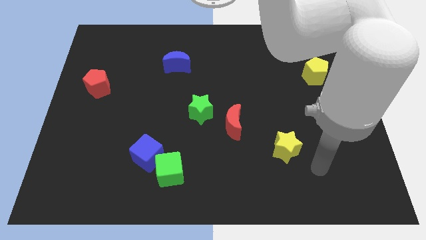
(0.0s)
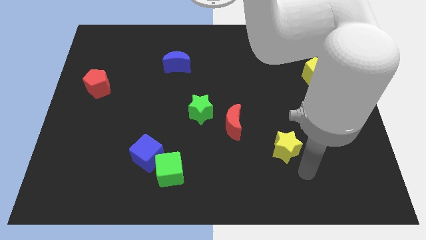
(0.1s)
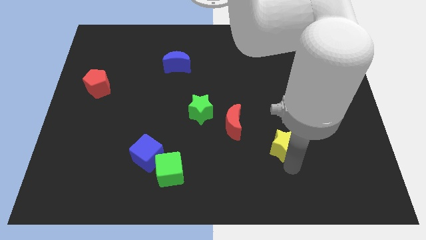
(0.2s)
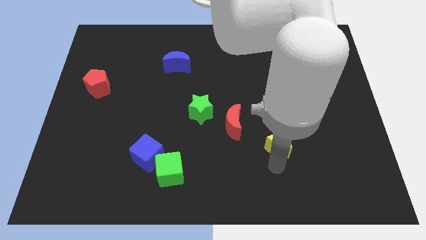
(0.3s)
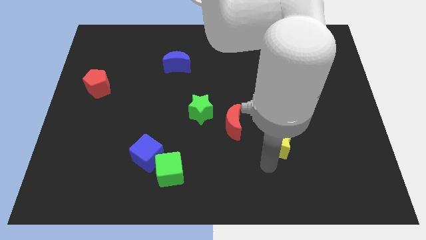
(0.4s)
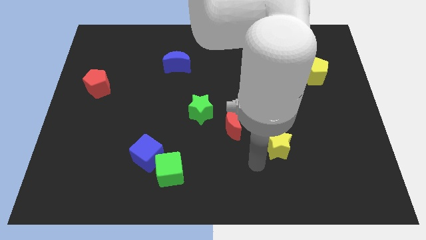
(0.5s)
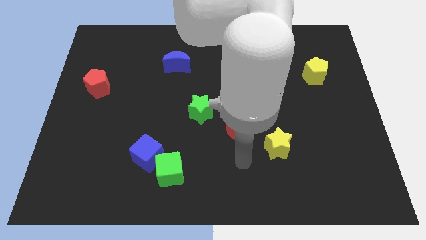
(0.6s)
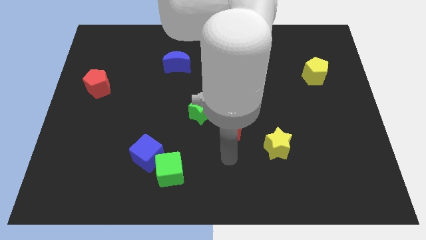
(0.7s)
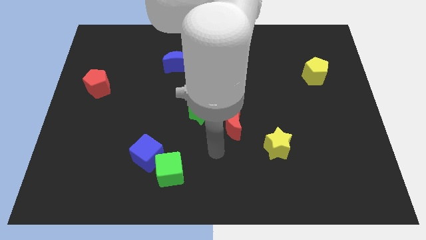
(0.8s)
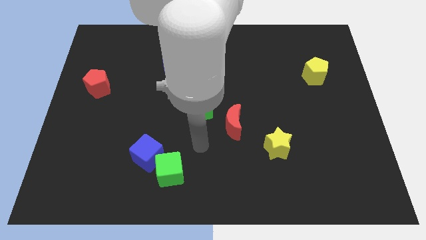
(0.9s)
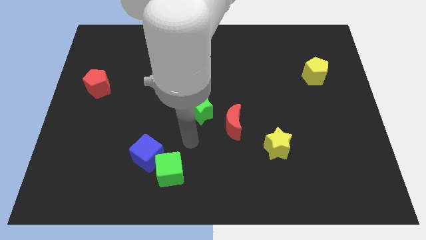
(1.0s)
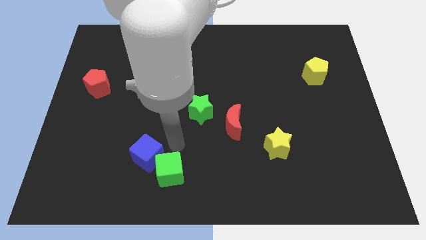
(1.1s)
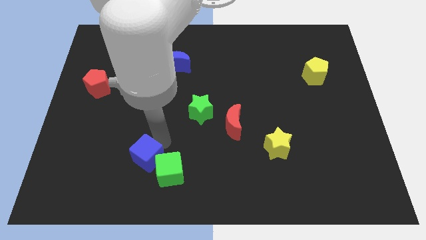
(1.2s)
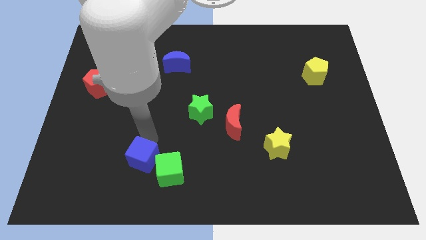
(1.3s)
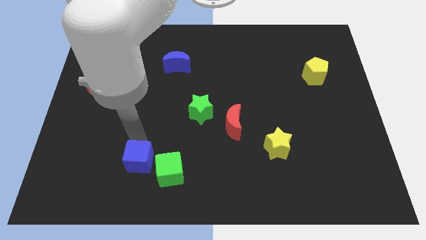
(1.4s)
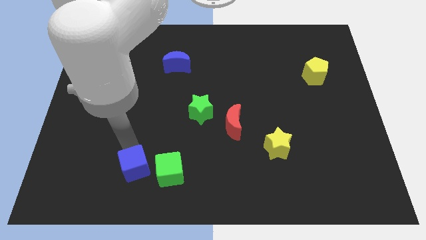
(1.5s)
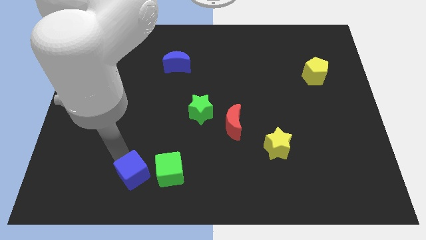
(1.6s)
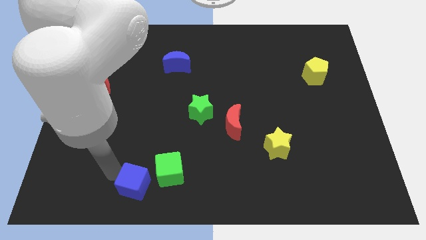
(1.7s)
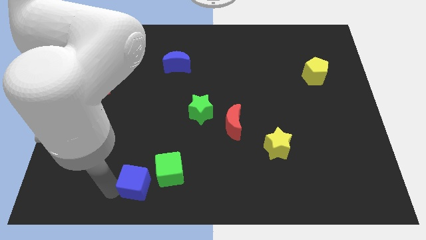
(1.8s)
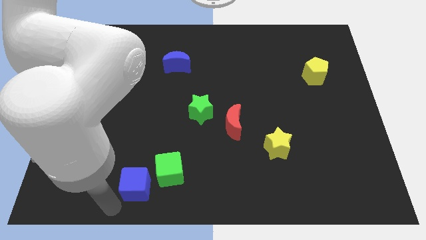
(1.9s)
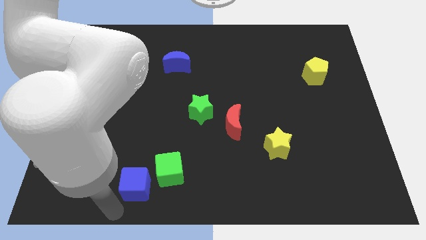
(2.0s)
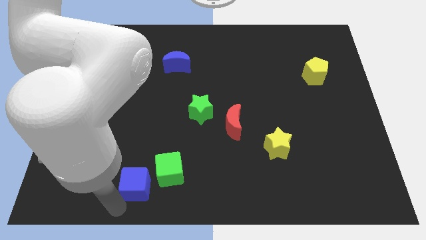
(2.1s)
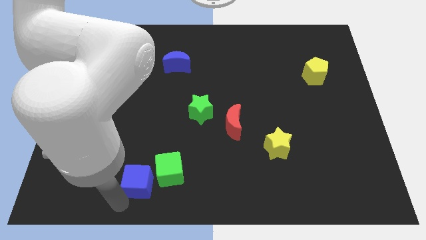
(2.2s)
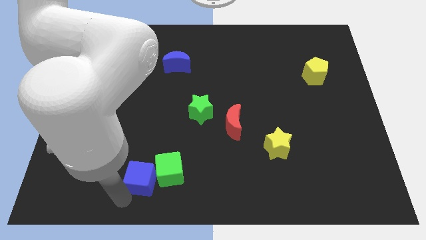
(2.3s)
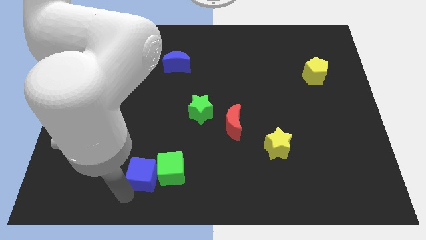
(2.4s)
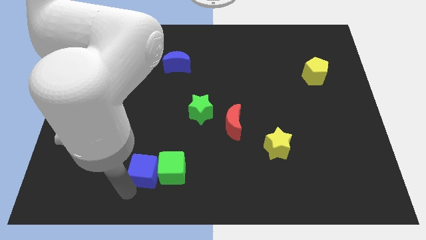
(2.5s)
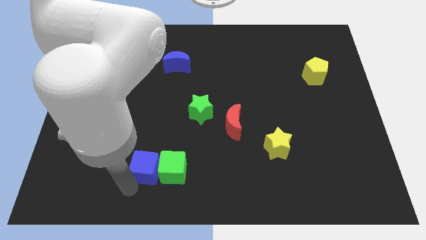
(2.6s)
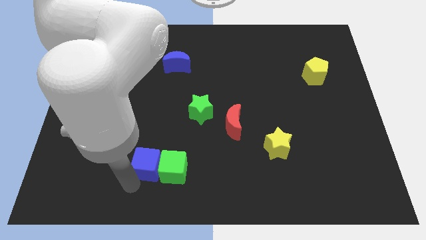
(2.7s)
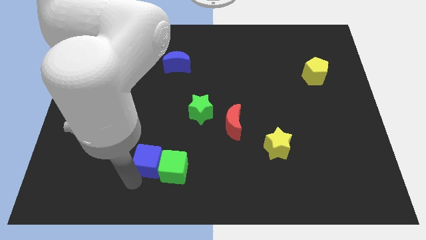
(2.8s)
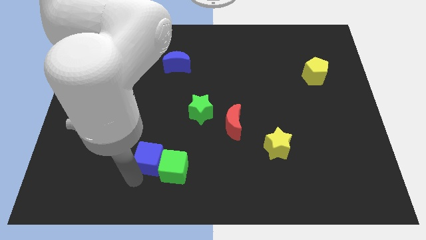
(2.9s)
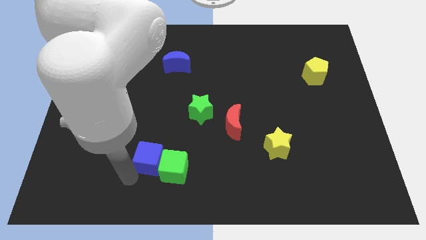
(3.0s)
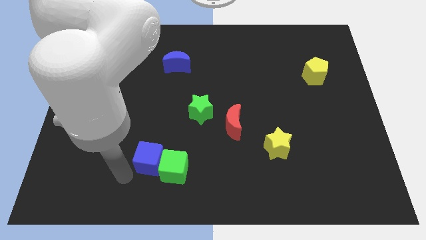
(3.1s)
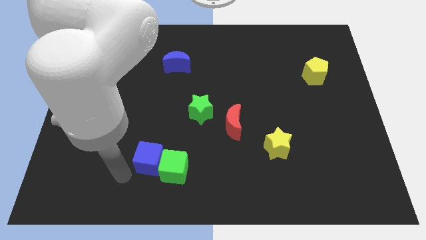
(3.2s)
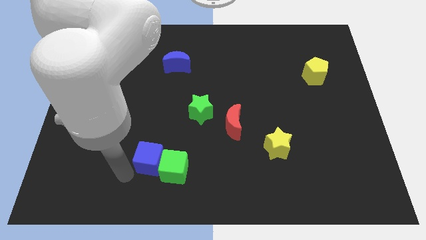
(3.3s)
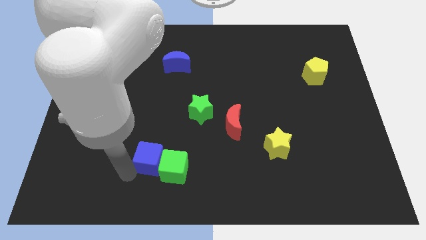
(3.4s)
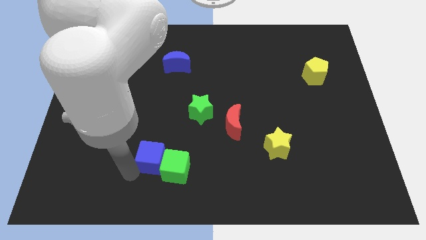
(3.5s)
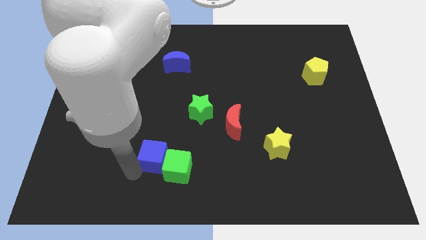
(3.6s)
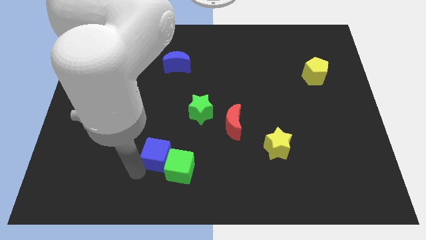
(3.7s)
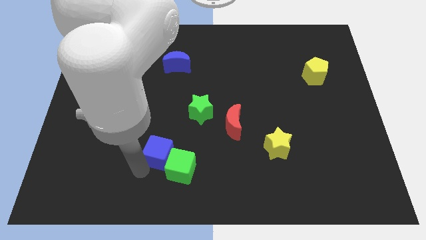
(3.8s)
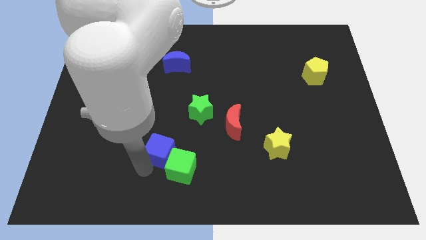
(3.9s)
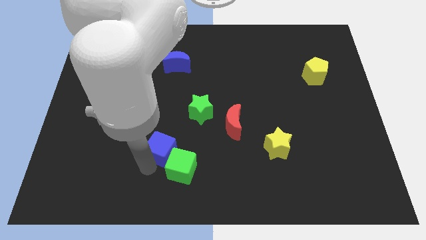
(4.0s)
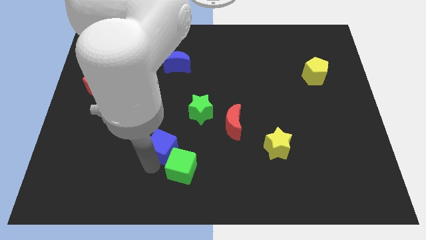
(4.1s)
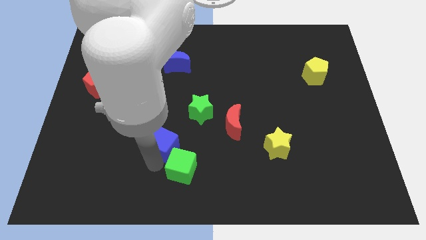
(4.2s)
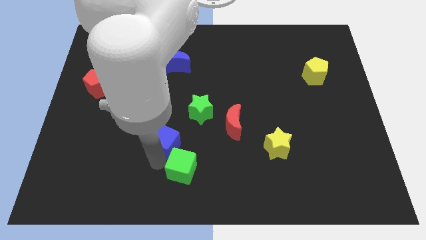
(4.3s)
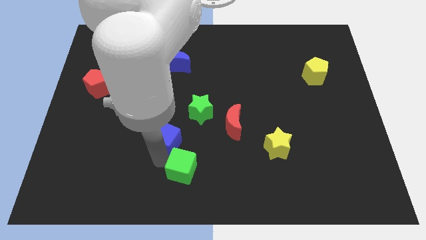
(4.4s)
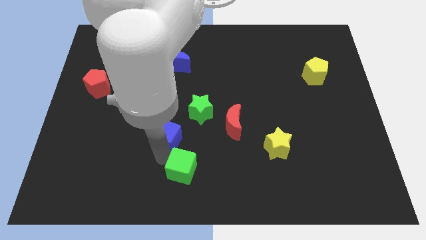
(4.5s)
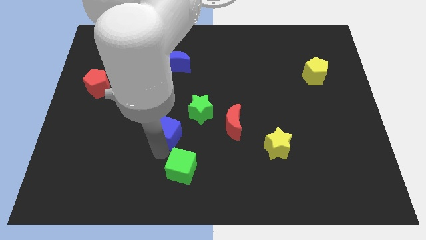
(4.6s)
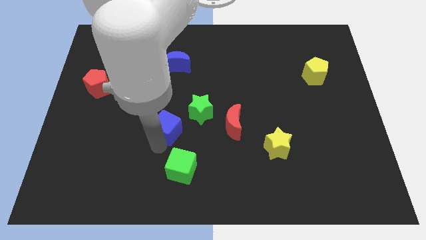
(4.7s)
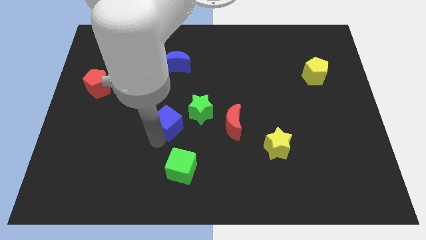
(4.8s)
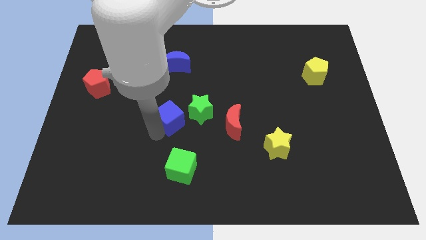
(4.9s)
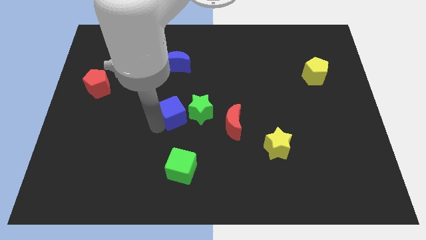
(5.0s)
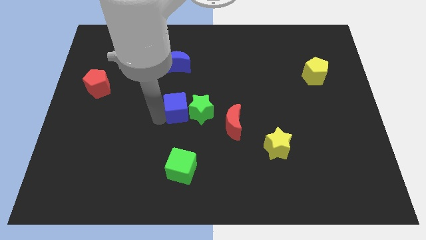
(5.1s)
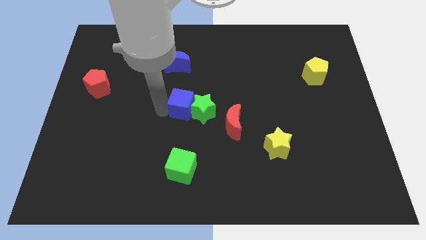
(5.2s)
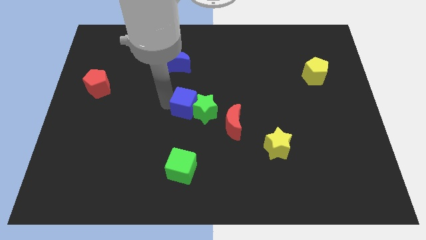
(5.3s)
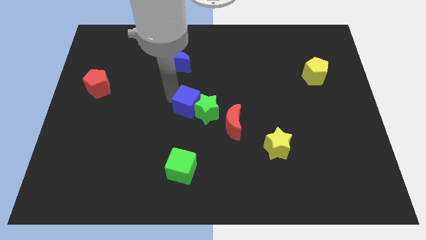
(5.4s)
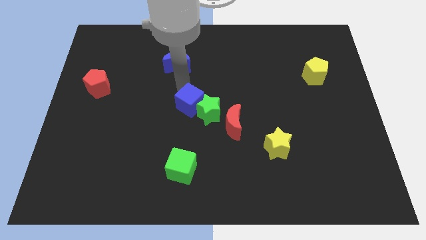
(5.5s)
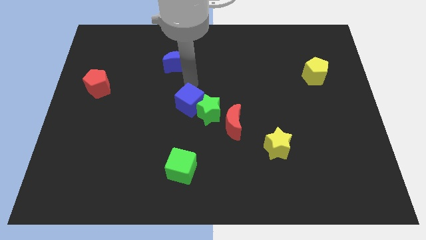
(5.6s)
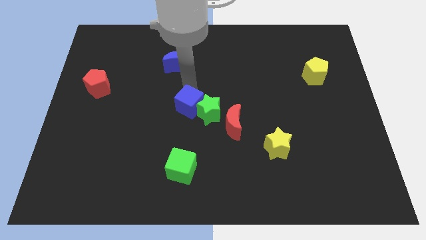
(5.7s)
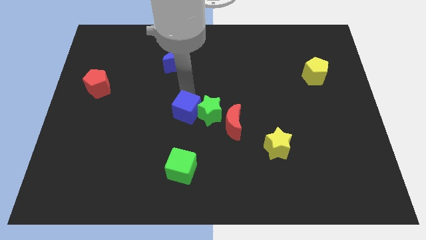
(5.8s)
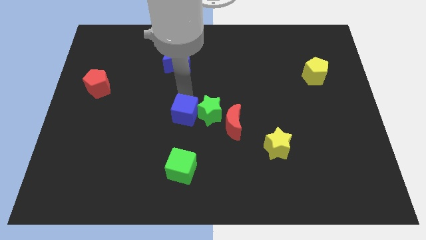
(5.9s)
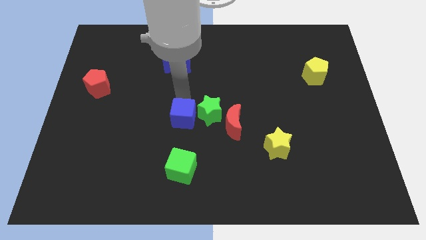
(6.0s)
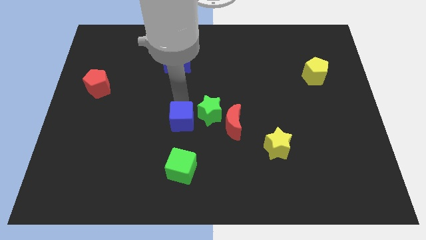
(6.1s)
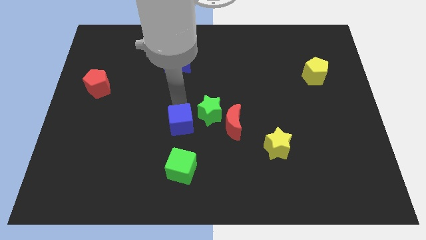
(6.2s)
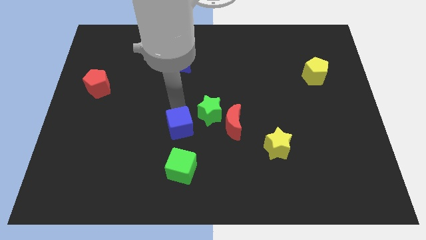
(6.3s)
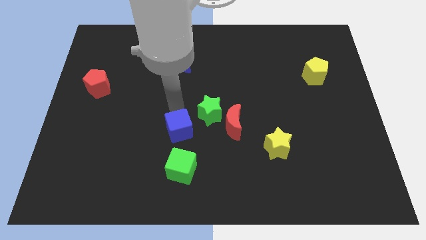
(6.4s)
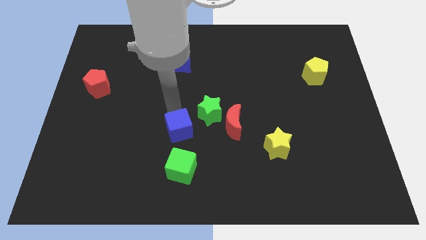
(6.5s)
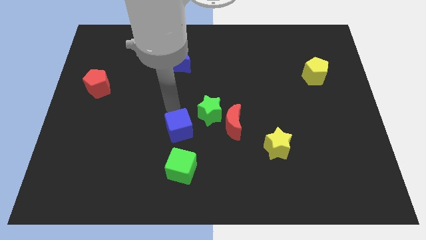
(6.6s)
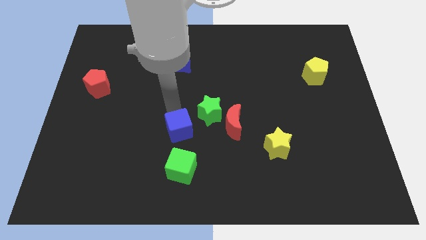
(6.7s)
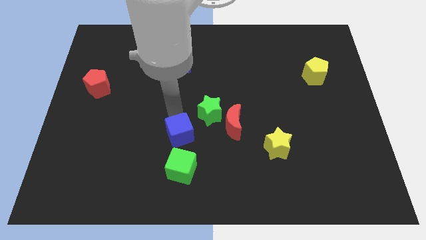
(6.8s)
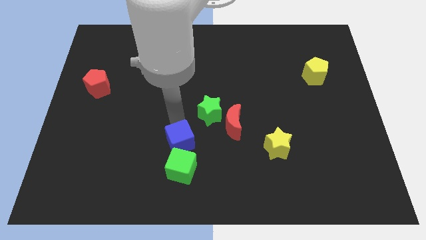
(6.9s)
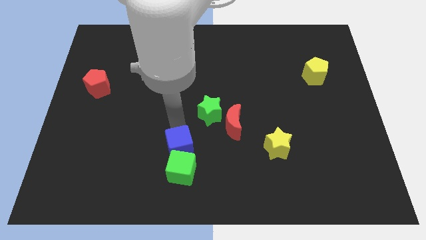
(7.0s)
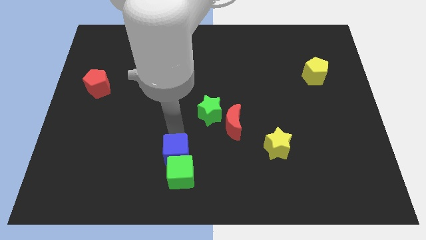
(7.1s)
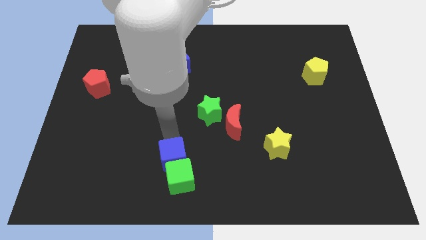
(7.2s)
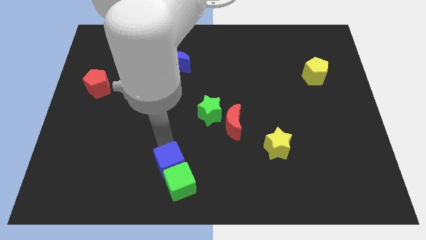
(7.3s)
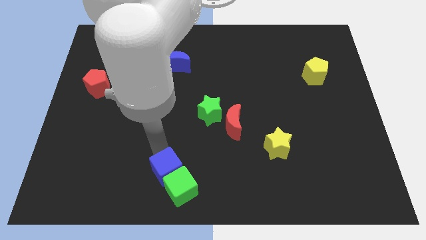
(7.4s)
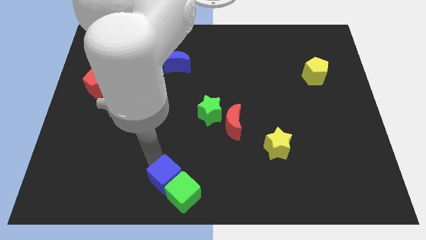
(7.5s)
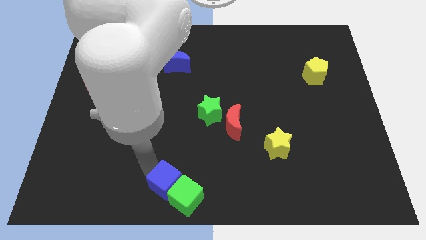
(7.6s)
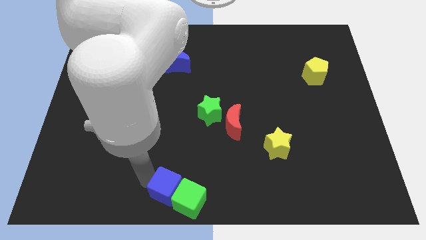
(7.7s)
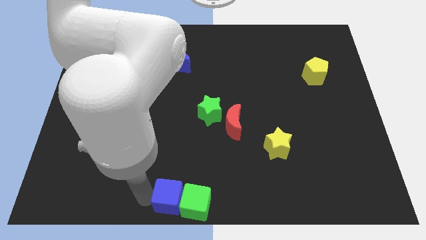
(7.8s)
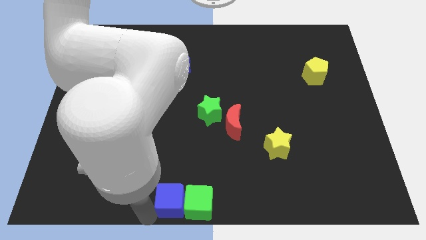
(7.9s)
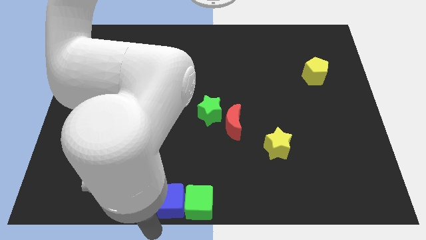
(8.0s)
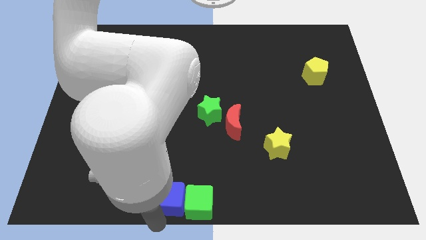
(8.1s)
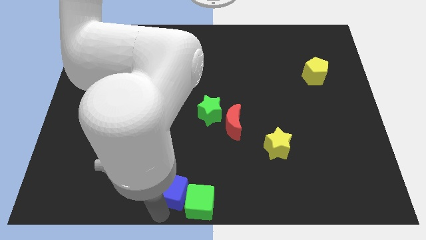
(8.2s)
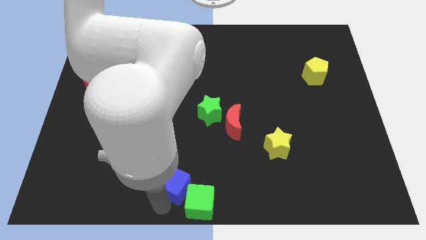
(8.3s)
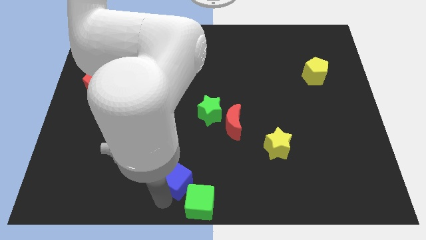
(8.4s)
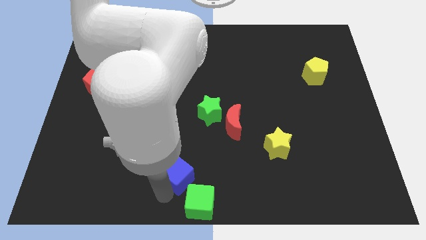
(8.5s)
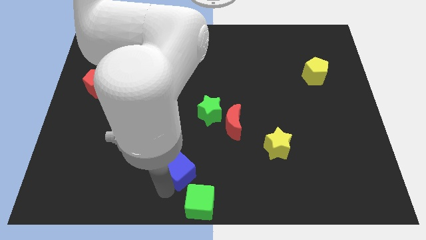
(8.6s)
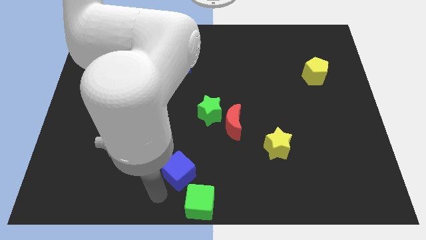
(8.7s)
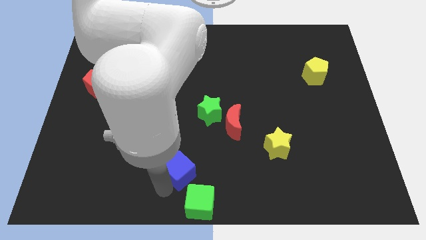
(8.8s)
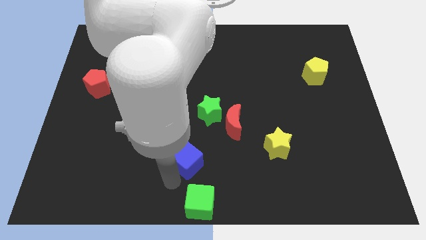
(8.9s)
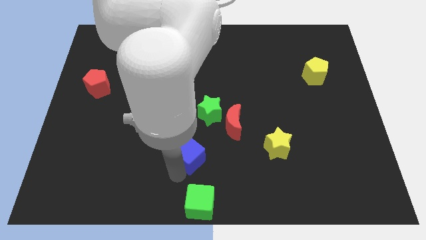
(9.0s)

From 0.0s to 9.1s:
move the blue cube to the bottom left side of the red moon
